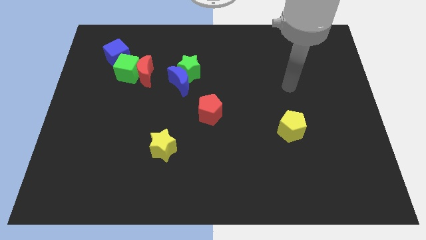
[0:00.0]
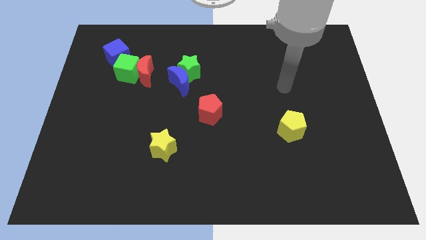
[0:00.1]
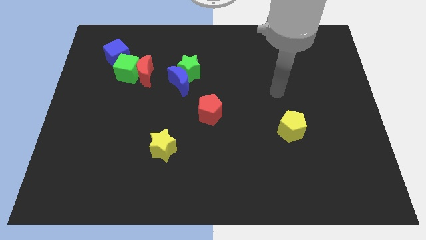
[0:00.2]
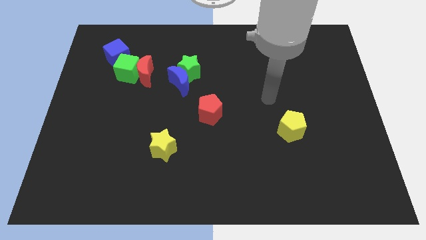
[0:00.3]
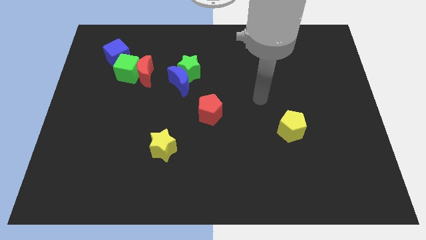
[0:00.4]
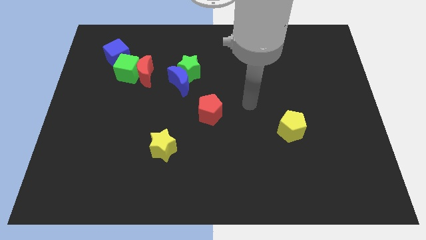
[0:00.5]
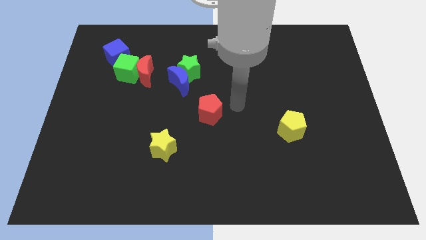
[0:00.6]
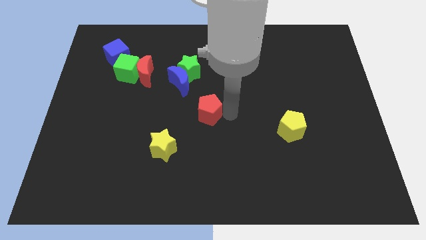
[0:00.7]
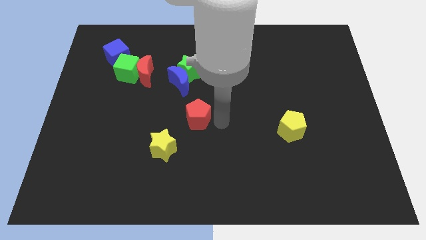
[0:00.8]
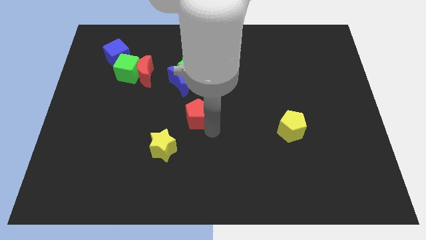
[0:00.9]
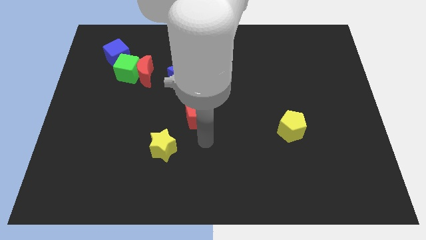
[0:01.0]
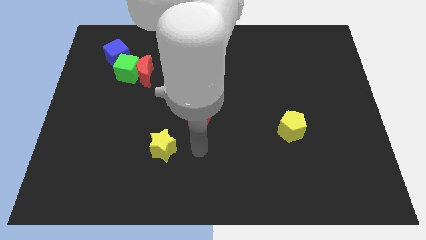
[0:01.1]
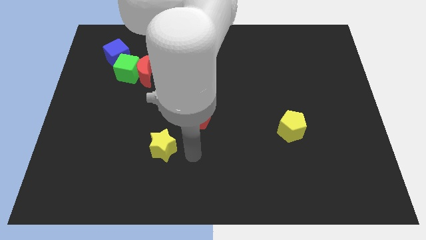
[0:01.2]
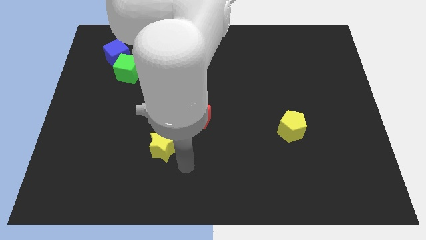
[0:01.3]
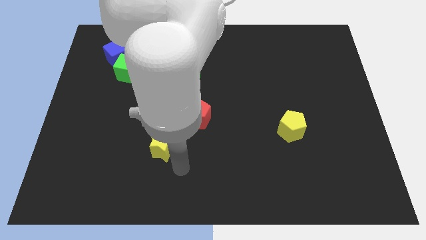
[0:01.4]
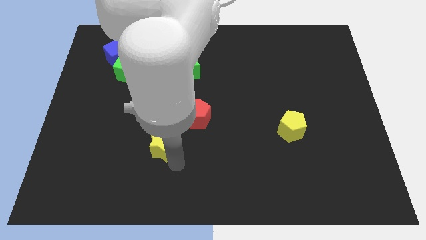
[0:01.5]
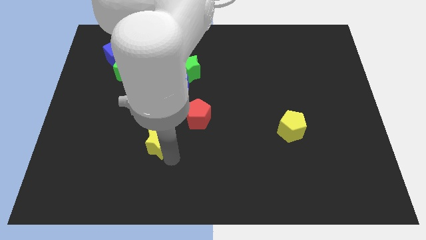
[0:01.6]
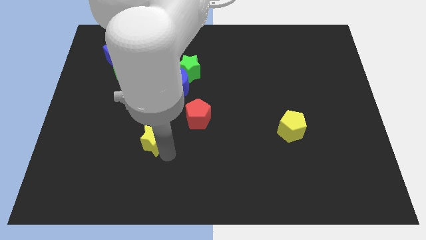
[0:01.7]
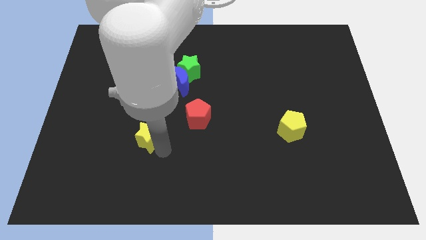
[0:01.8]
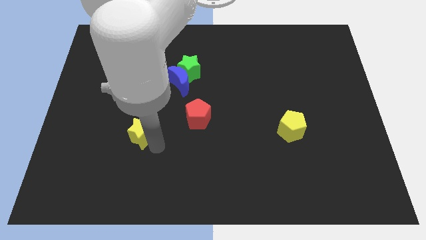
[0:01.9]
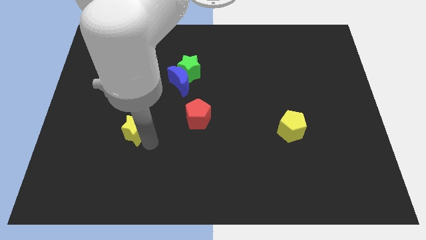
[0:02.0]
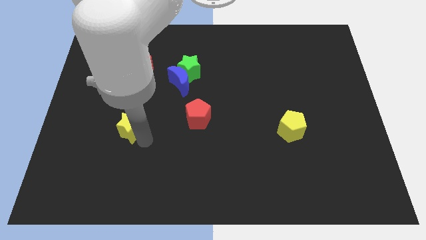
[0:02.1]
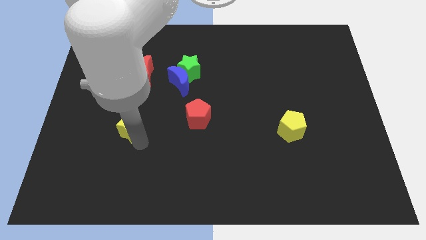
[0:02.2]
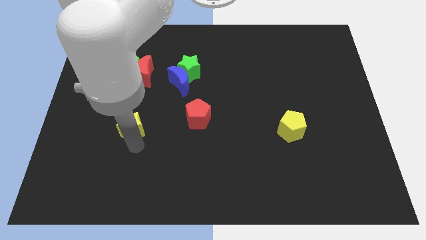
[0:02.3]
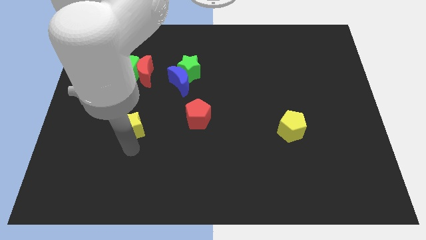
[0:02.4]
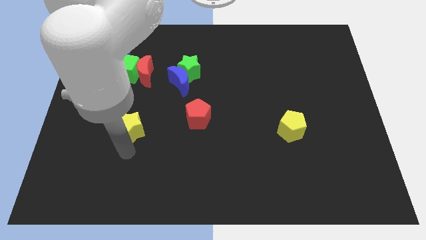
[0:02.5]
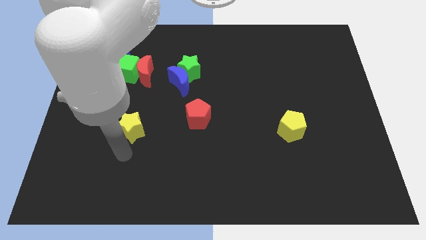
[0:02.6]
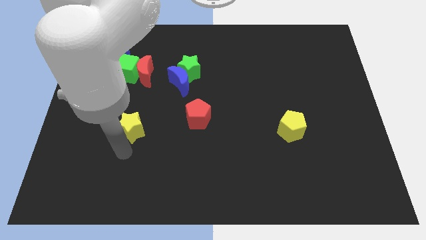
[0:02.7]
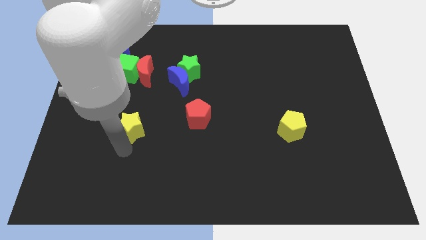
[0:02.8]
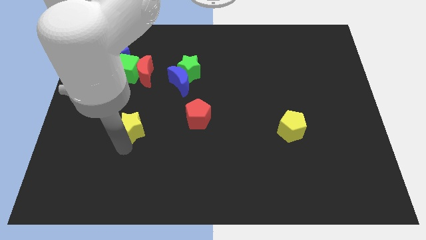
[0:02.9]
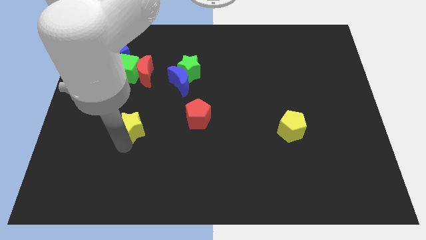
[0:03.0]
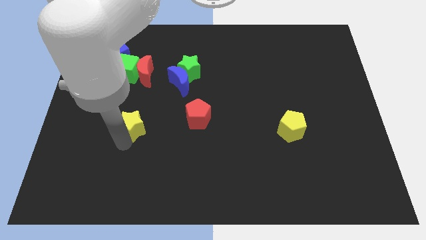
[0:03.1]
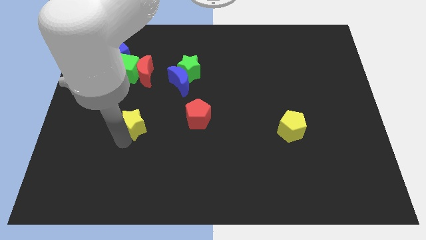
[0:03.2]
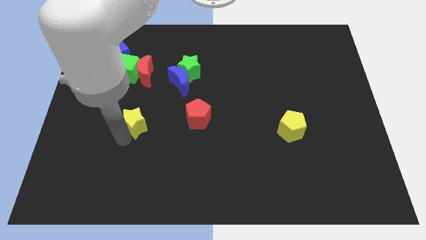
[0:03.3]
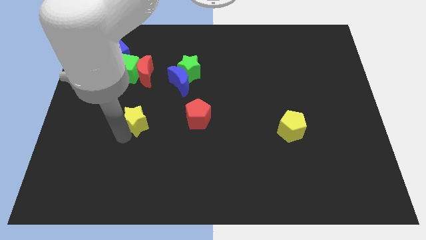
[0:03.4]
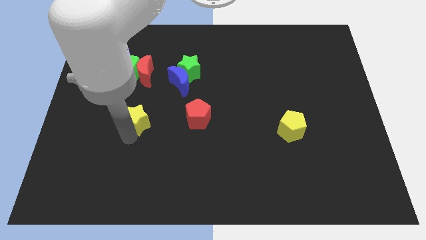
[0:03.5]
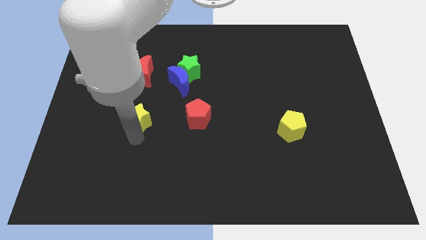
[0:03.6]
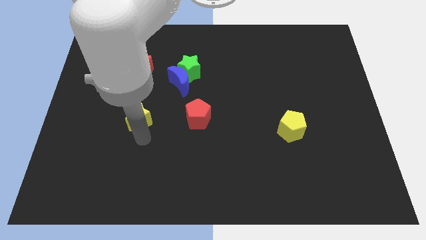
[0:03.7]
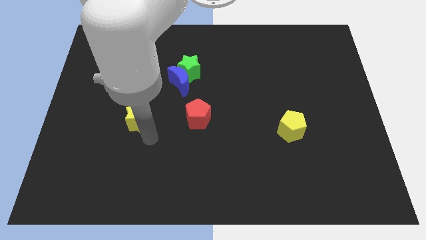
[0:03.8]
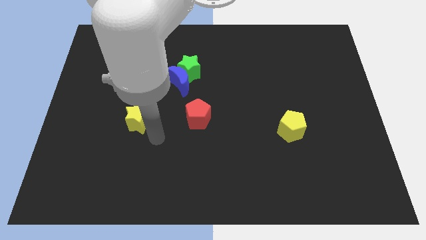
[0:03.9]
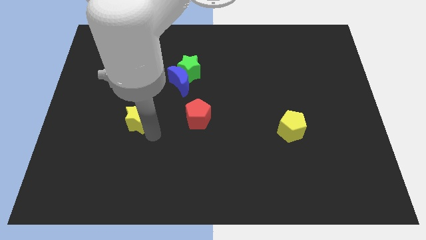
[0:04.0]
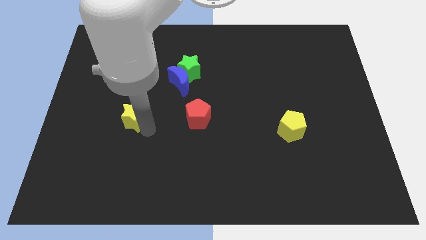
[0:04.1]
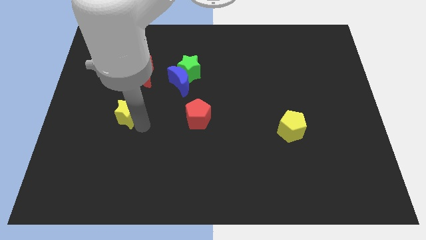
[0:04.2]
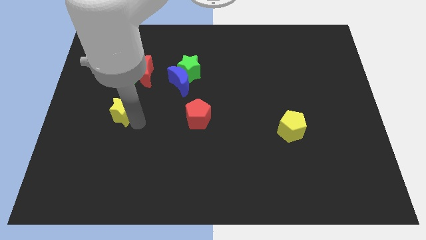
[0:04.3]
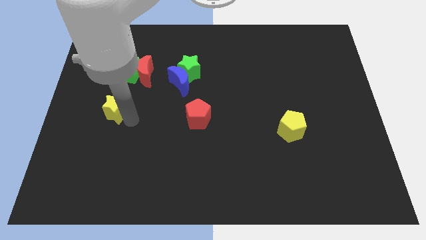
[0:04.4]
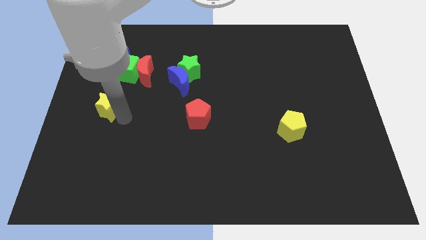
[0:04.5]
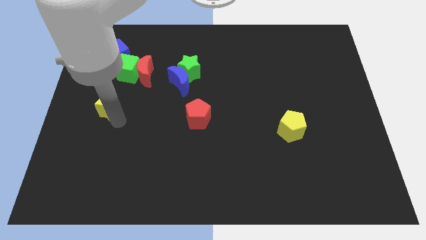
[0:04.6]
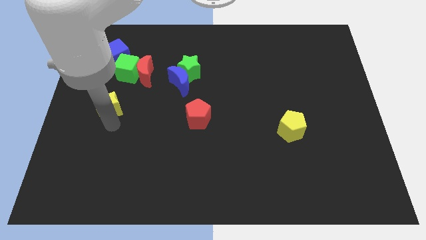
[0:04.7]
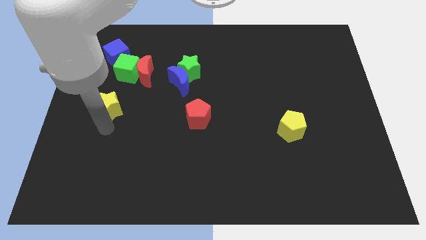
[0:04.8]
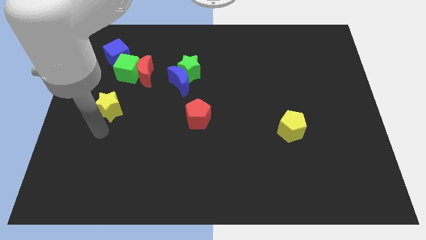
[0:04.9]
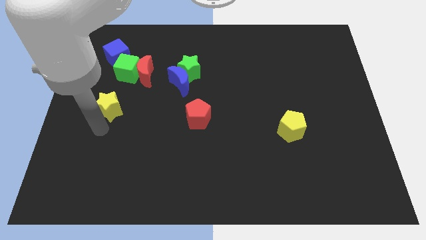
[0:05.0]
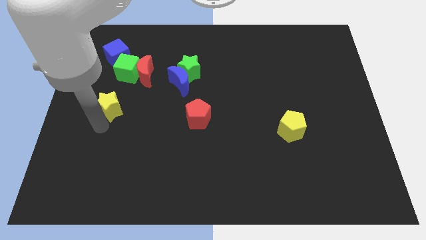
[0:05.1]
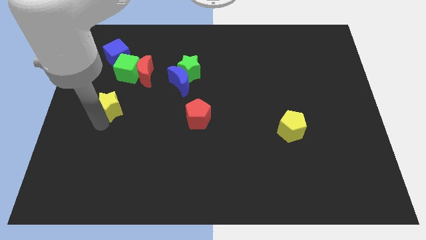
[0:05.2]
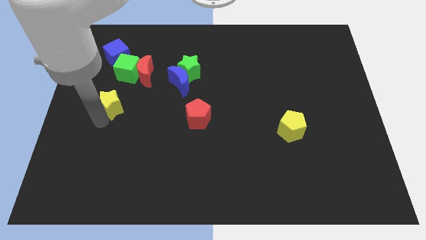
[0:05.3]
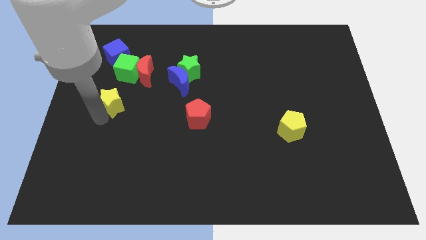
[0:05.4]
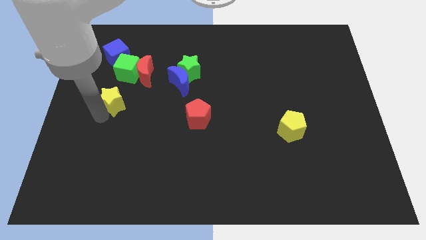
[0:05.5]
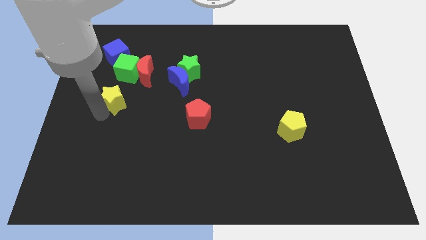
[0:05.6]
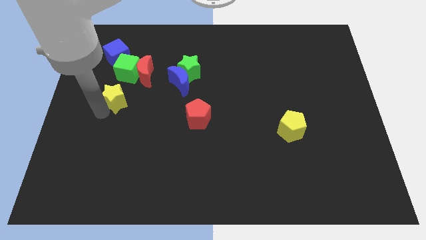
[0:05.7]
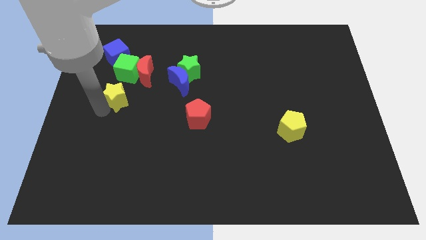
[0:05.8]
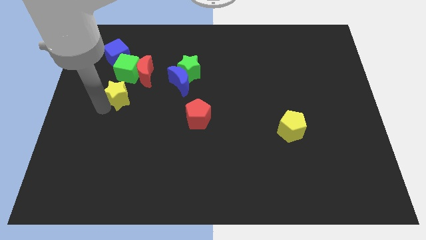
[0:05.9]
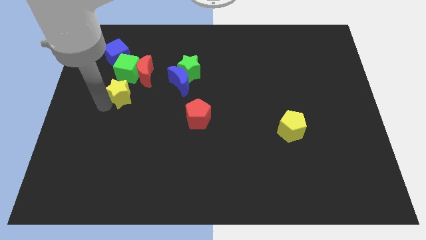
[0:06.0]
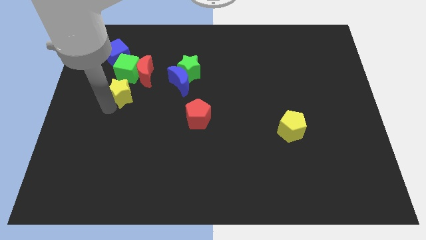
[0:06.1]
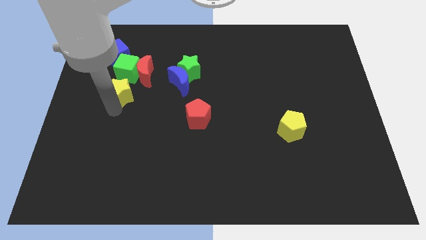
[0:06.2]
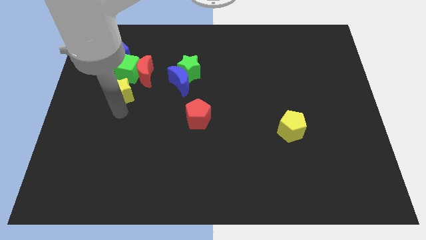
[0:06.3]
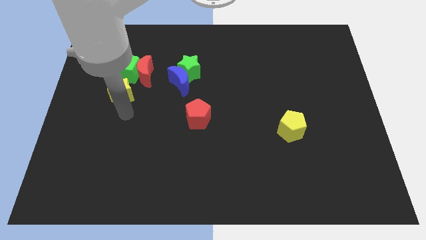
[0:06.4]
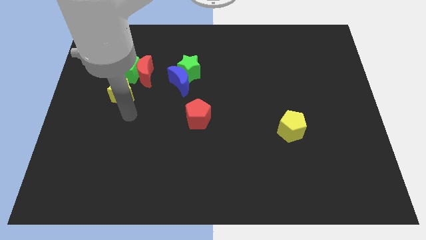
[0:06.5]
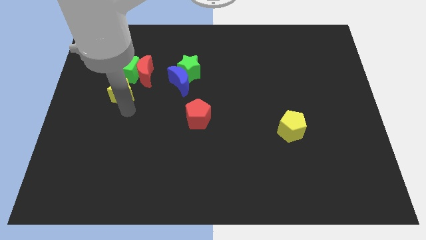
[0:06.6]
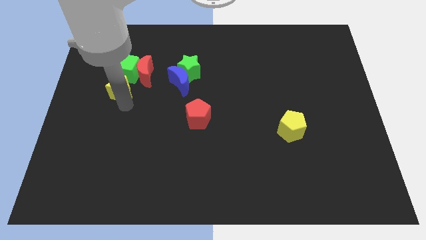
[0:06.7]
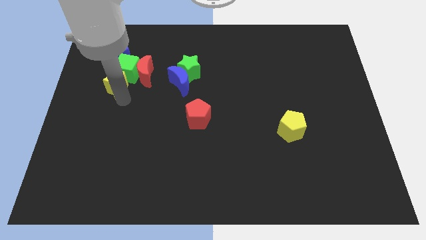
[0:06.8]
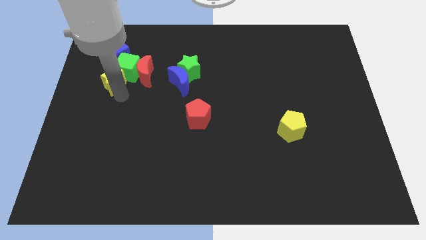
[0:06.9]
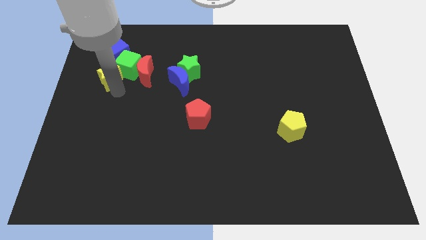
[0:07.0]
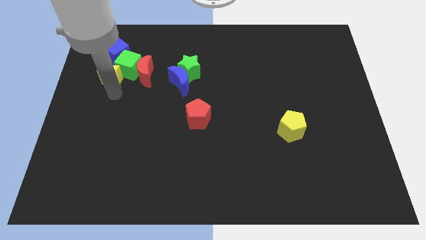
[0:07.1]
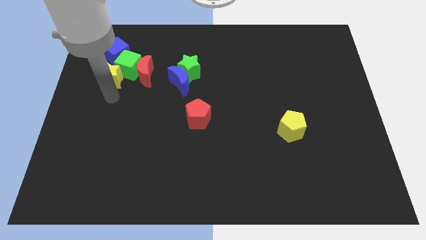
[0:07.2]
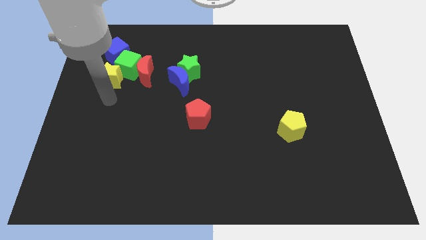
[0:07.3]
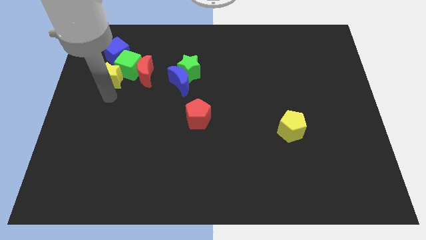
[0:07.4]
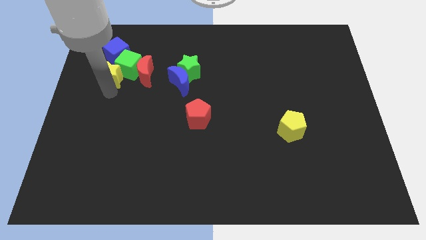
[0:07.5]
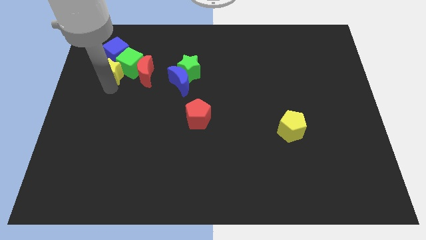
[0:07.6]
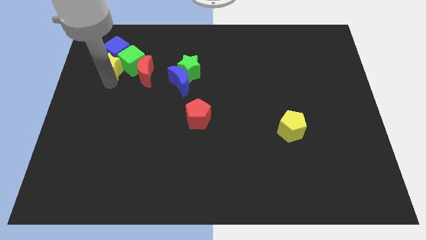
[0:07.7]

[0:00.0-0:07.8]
push the yellow star to the blue cube

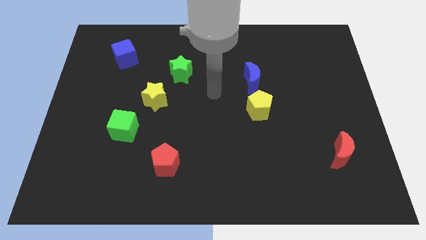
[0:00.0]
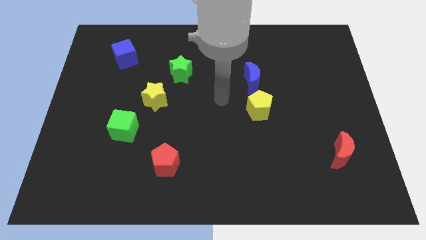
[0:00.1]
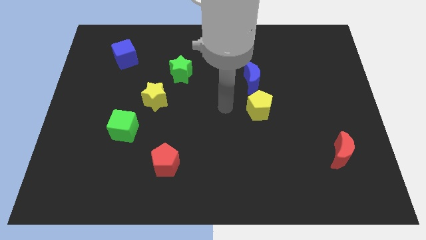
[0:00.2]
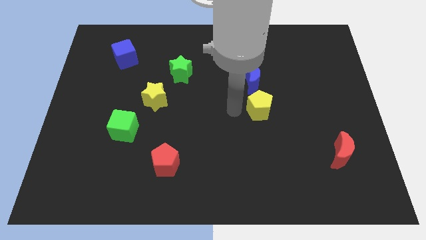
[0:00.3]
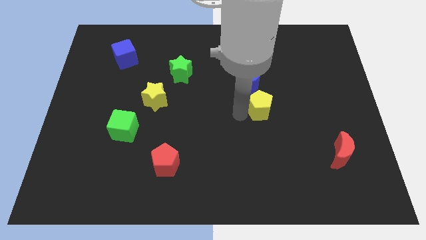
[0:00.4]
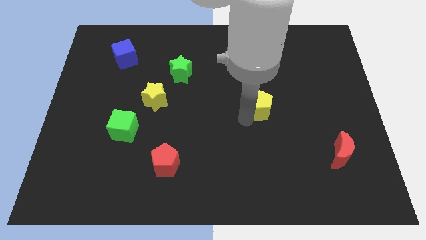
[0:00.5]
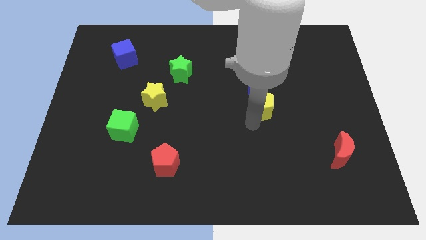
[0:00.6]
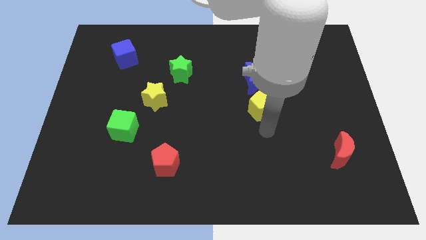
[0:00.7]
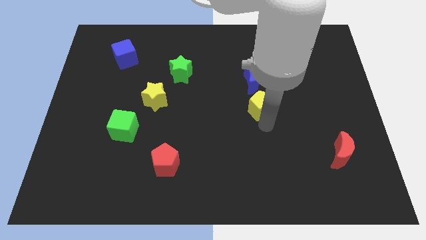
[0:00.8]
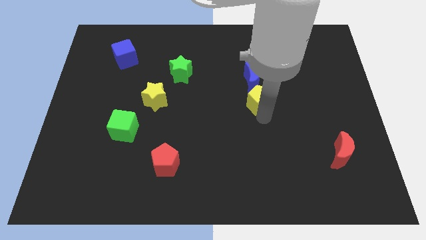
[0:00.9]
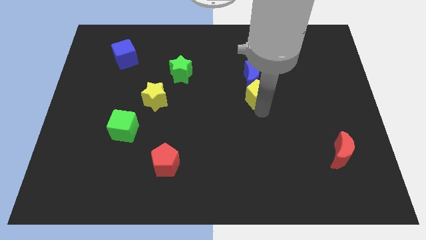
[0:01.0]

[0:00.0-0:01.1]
slide the yellow pentagon to the blue moon
